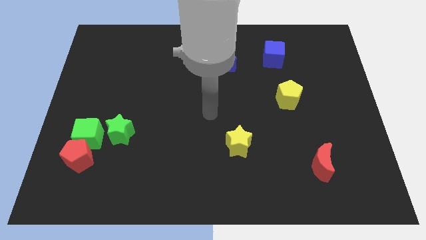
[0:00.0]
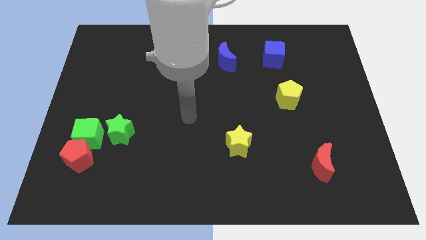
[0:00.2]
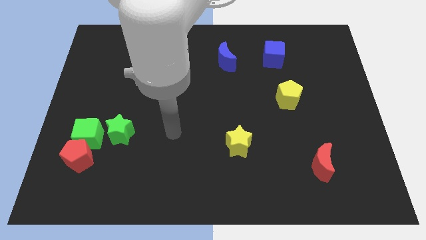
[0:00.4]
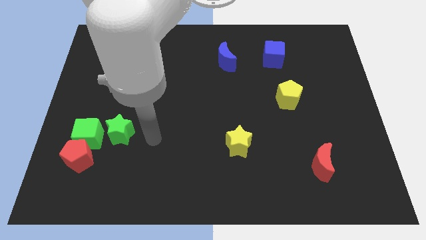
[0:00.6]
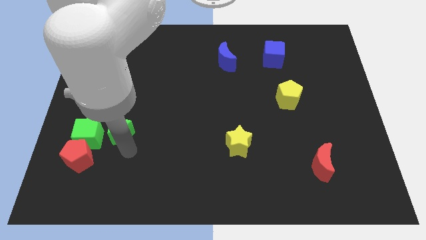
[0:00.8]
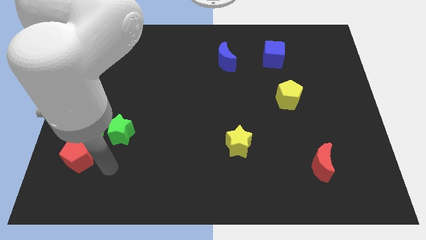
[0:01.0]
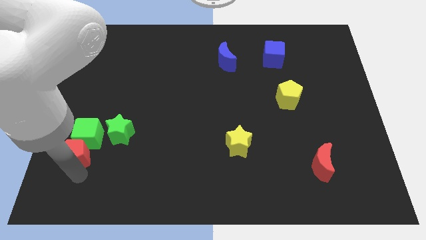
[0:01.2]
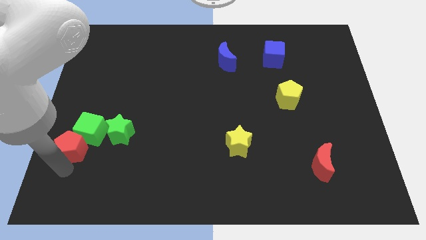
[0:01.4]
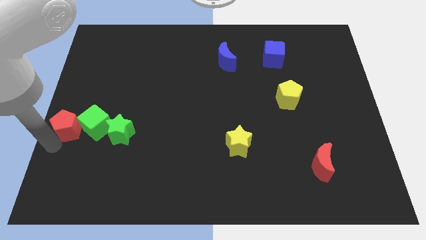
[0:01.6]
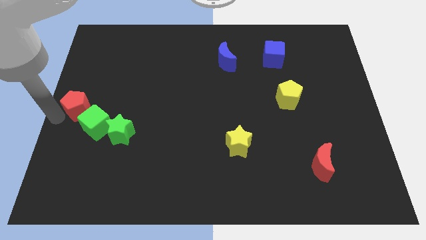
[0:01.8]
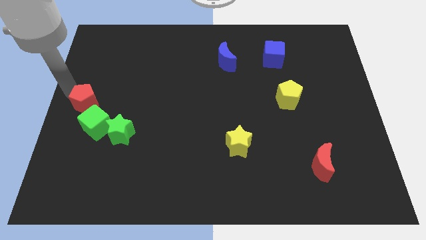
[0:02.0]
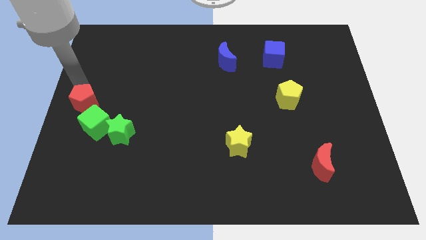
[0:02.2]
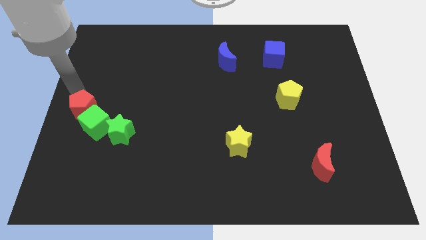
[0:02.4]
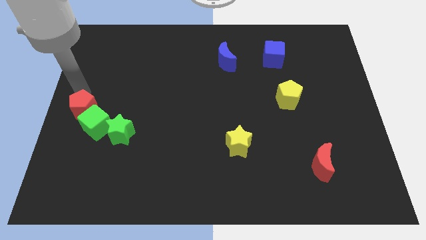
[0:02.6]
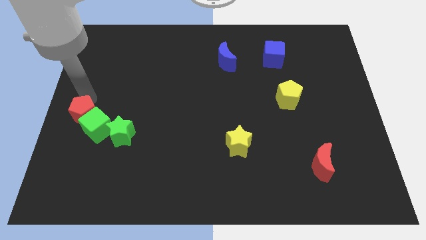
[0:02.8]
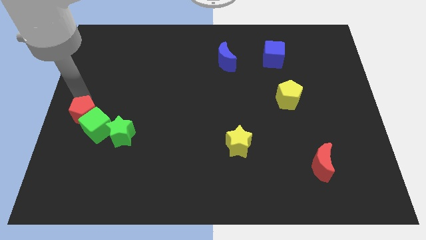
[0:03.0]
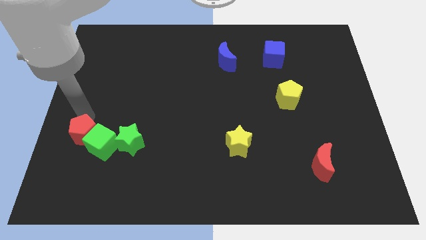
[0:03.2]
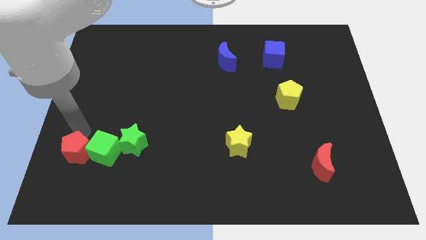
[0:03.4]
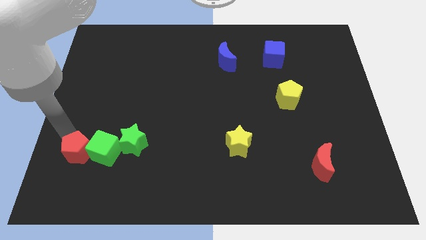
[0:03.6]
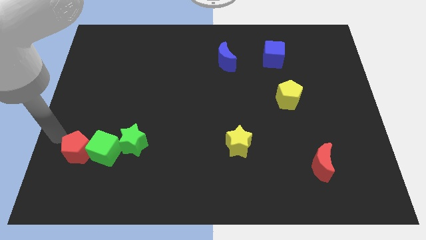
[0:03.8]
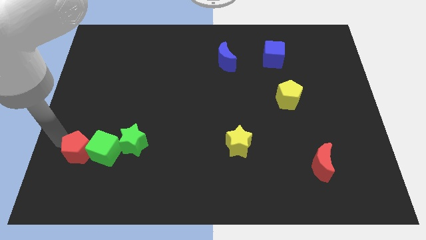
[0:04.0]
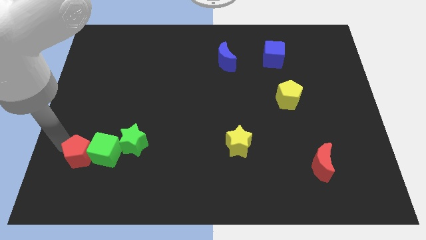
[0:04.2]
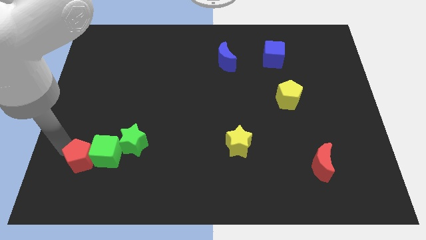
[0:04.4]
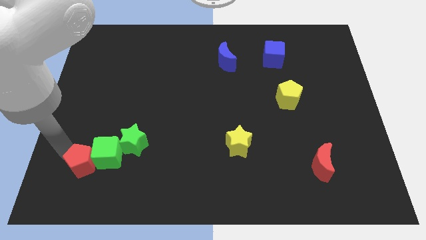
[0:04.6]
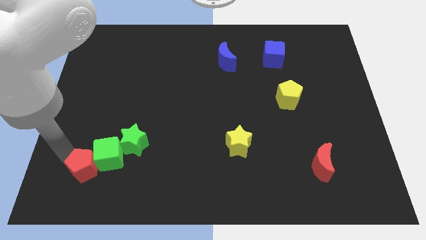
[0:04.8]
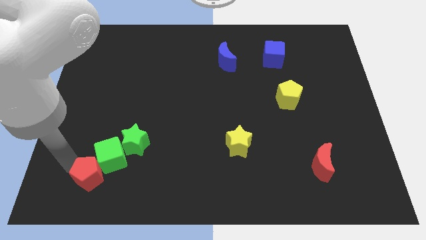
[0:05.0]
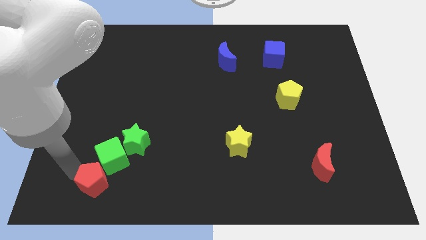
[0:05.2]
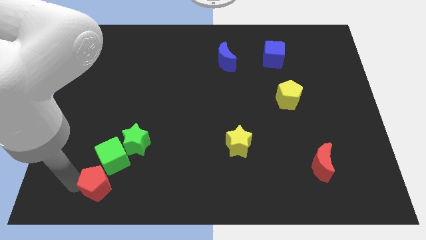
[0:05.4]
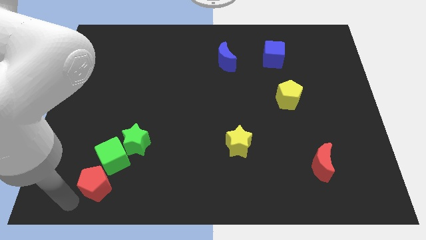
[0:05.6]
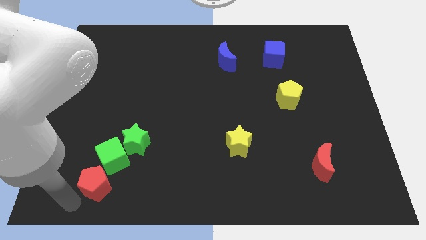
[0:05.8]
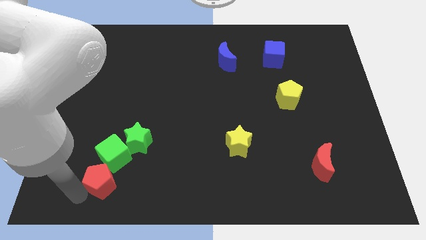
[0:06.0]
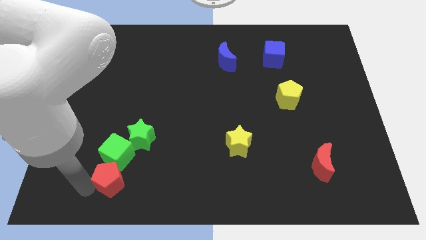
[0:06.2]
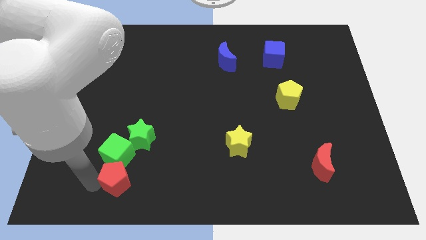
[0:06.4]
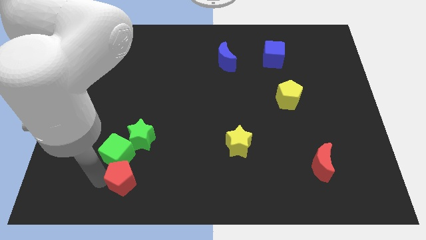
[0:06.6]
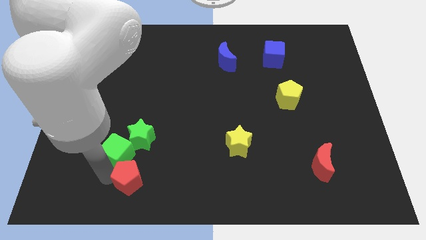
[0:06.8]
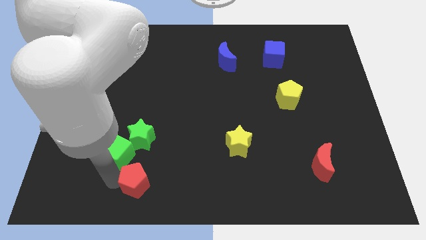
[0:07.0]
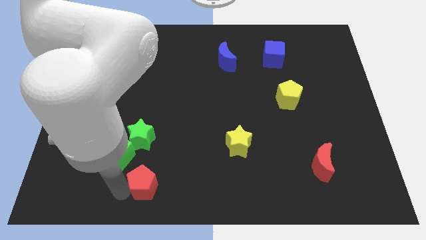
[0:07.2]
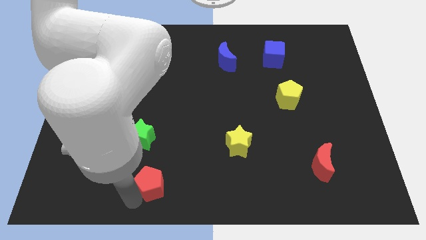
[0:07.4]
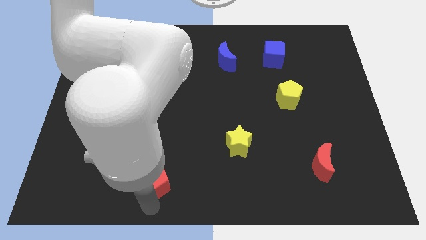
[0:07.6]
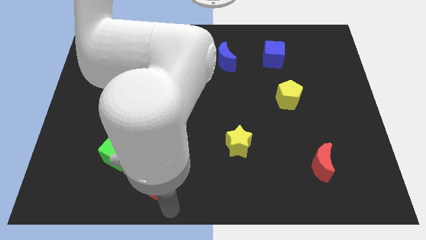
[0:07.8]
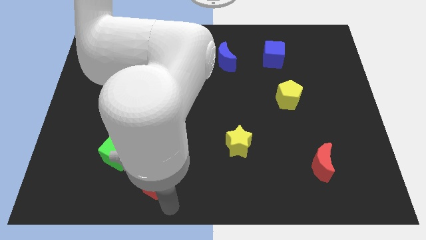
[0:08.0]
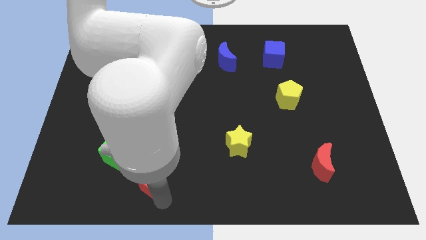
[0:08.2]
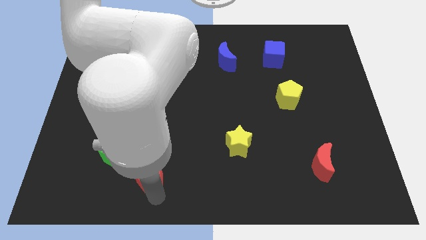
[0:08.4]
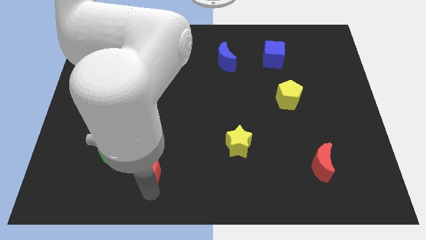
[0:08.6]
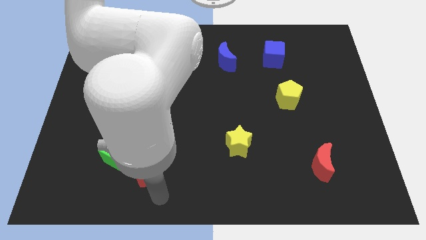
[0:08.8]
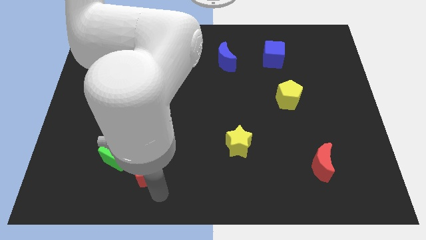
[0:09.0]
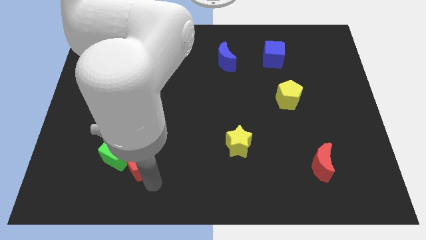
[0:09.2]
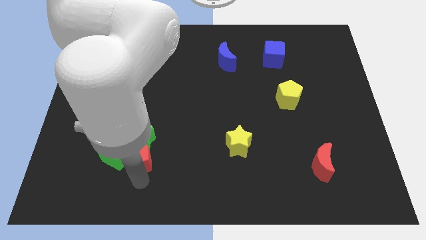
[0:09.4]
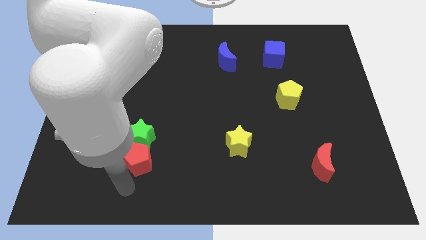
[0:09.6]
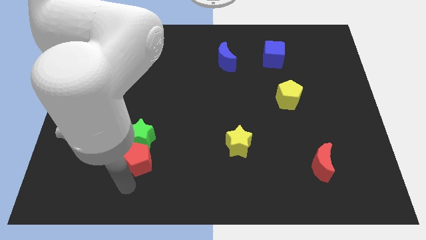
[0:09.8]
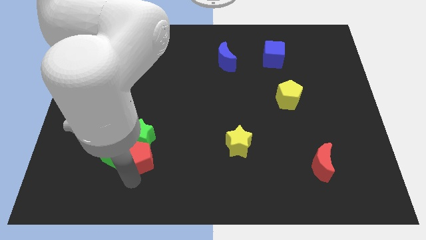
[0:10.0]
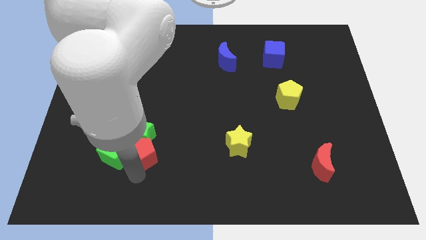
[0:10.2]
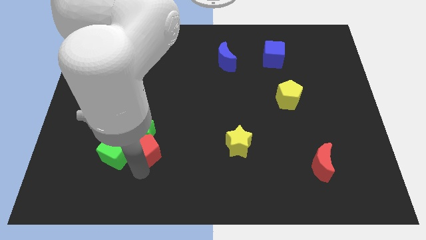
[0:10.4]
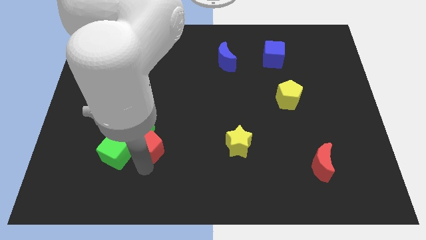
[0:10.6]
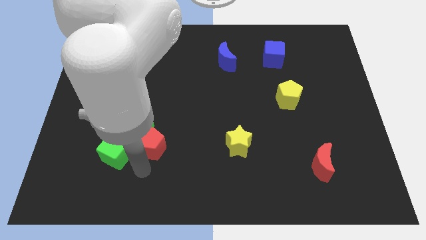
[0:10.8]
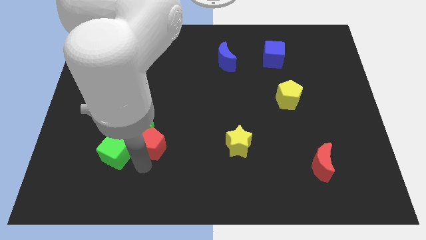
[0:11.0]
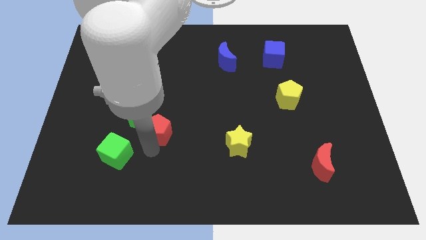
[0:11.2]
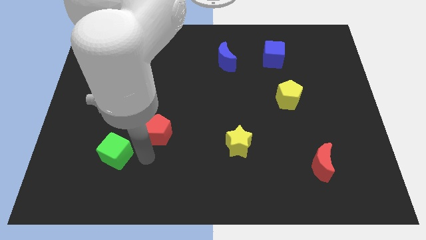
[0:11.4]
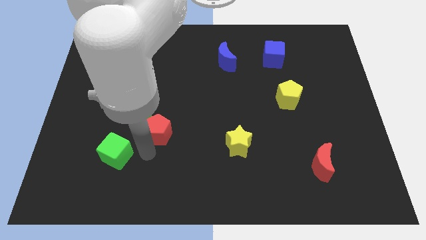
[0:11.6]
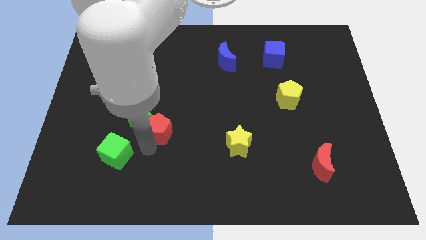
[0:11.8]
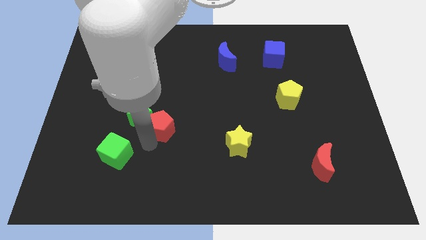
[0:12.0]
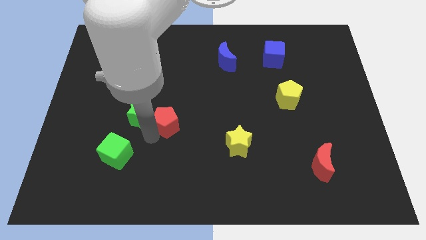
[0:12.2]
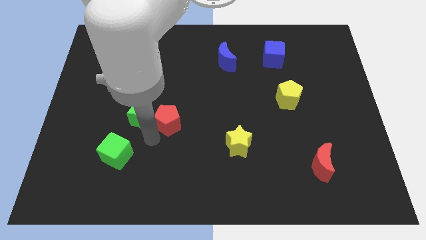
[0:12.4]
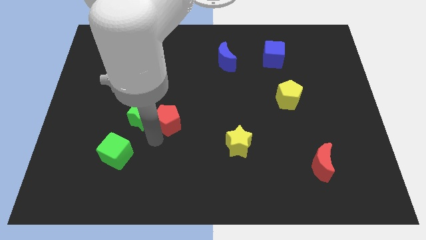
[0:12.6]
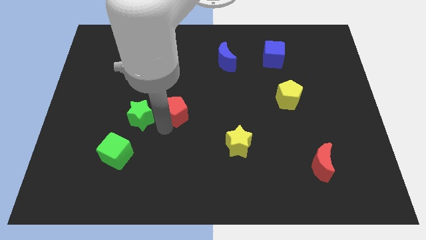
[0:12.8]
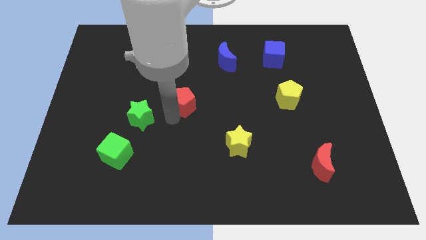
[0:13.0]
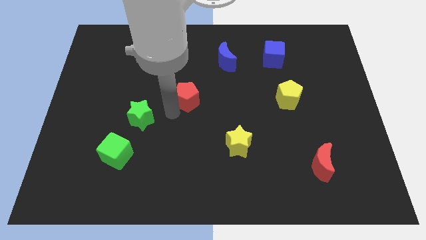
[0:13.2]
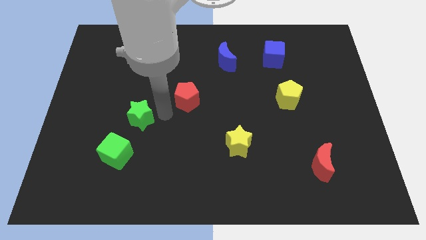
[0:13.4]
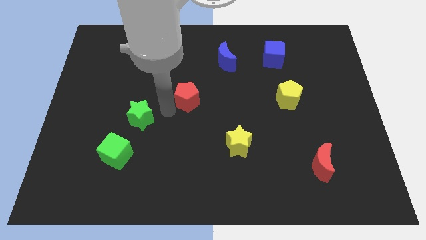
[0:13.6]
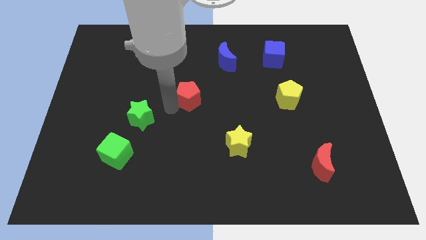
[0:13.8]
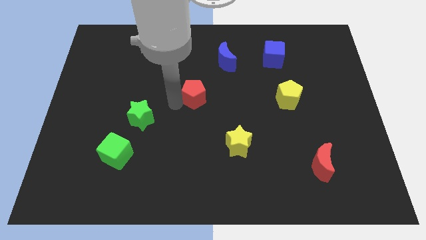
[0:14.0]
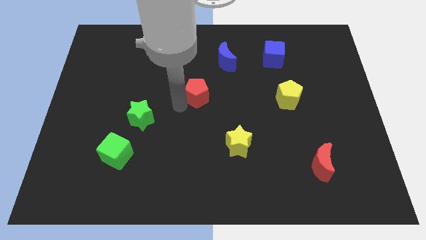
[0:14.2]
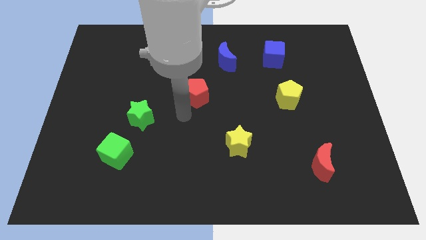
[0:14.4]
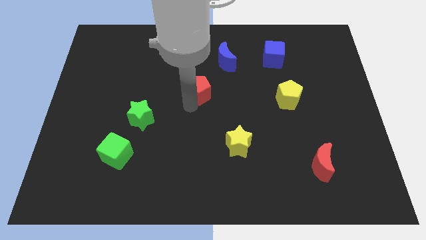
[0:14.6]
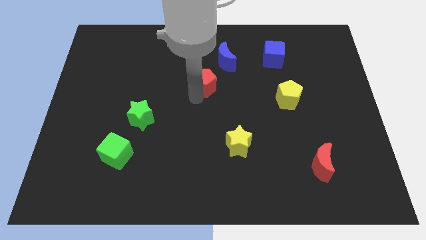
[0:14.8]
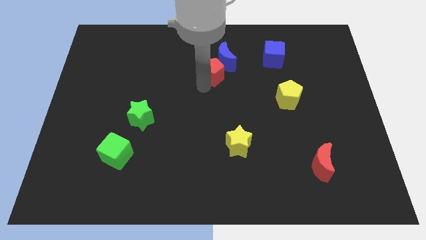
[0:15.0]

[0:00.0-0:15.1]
push the red pentagon to the blue moon
